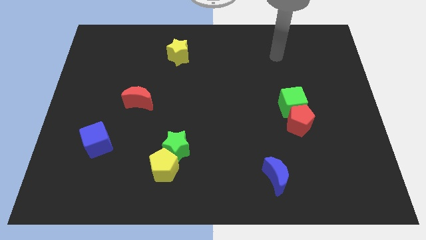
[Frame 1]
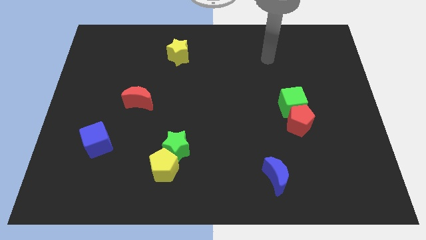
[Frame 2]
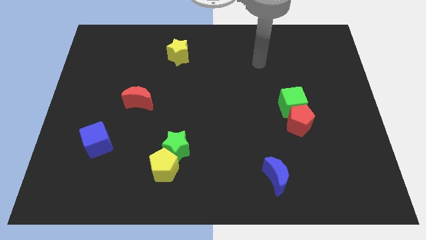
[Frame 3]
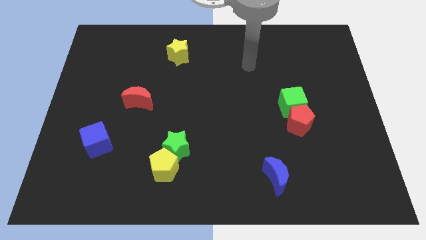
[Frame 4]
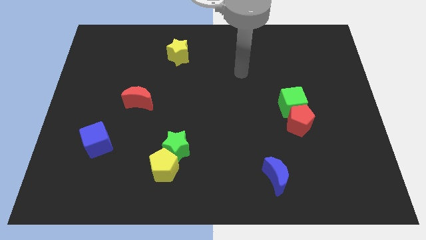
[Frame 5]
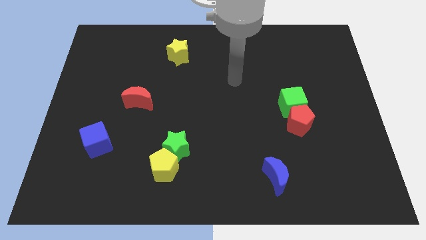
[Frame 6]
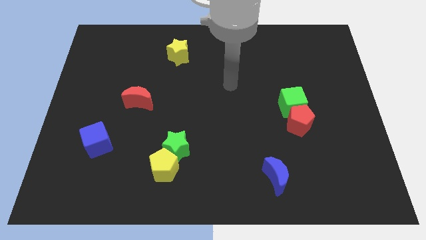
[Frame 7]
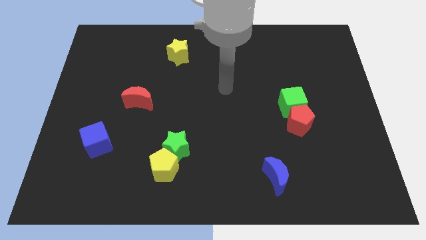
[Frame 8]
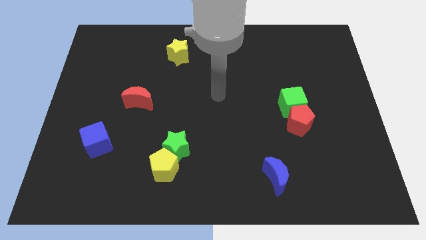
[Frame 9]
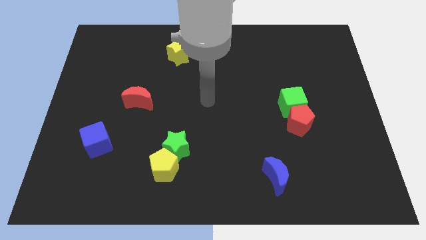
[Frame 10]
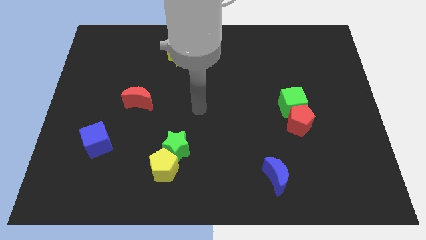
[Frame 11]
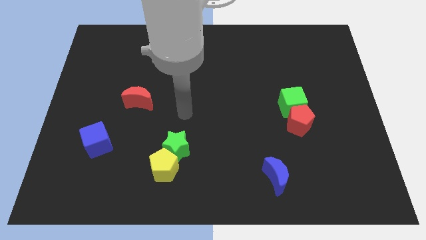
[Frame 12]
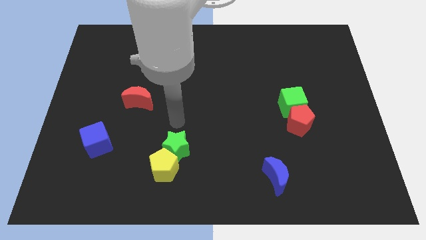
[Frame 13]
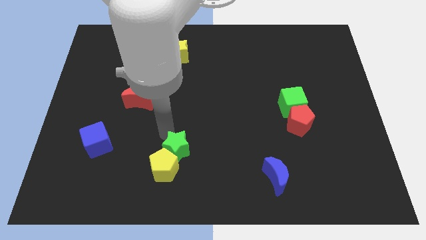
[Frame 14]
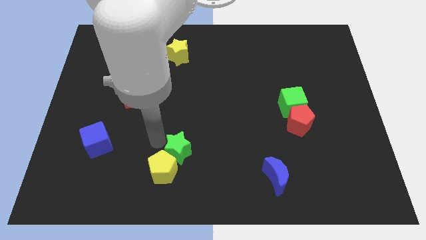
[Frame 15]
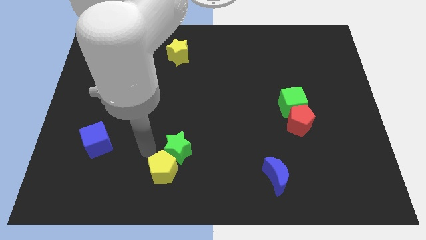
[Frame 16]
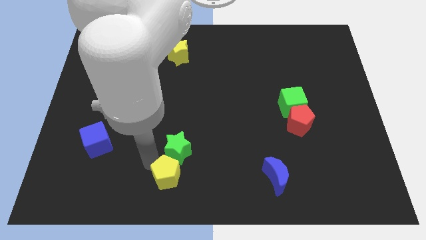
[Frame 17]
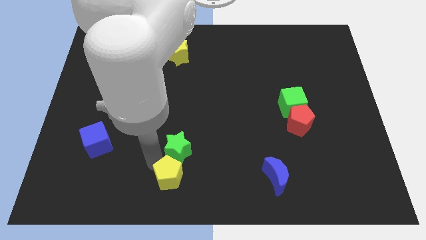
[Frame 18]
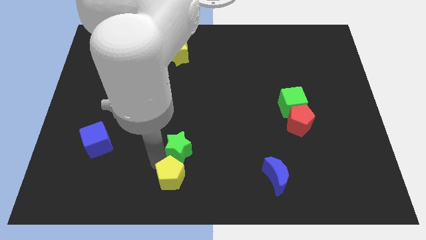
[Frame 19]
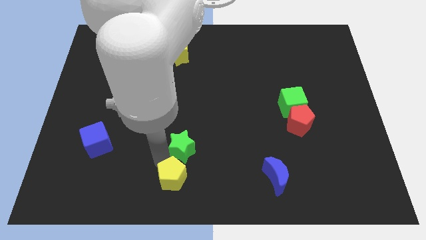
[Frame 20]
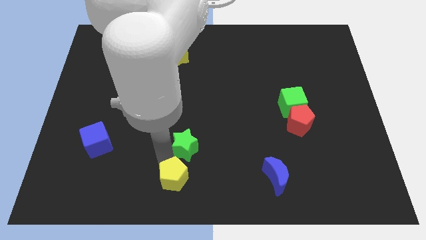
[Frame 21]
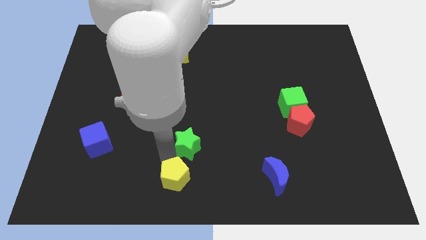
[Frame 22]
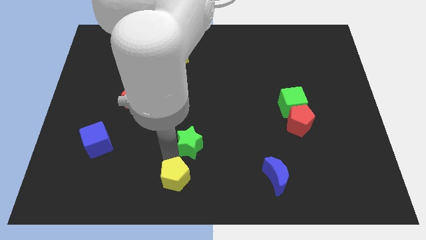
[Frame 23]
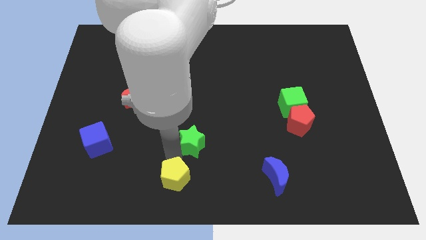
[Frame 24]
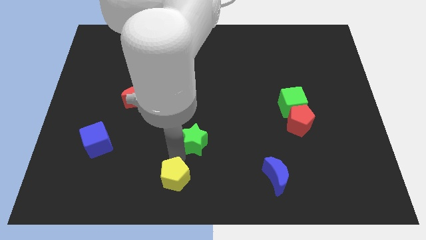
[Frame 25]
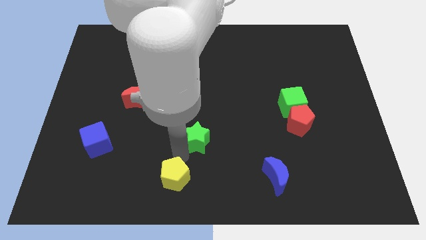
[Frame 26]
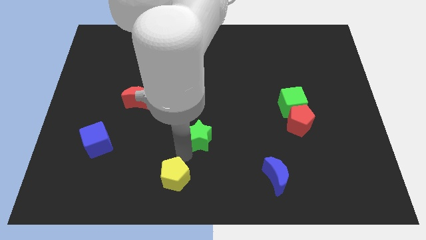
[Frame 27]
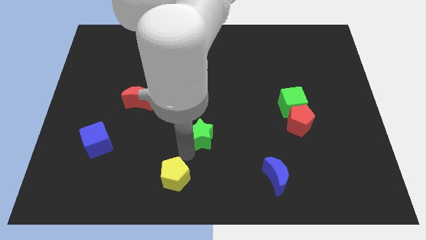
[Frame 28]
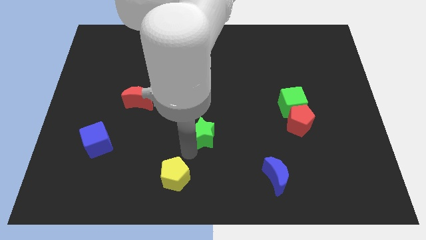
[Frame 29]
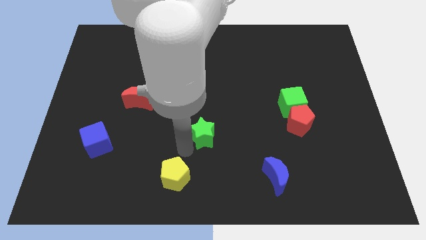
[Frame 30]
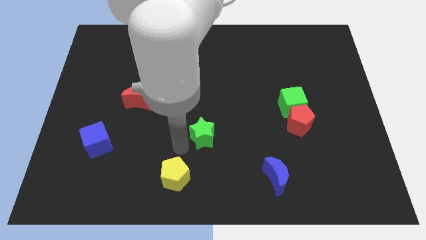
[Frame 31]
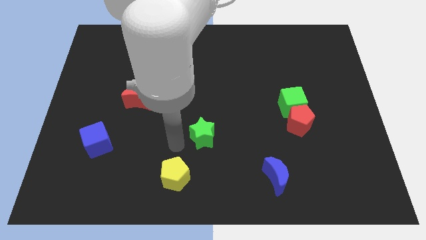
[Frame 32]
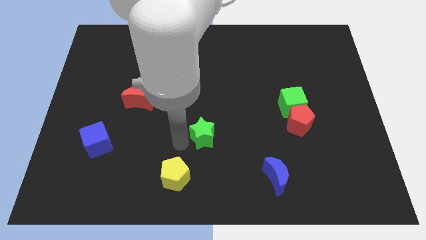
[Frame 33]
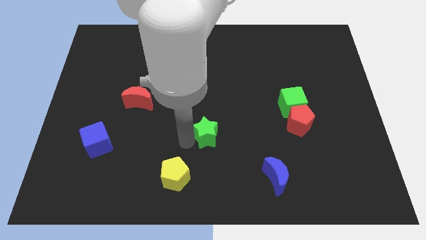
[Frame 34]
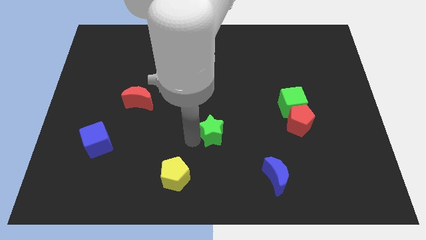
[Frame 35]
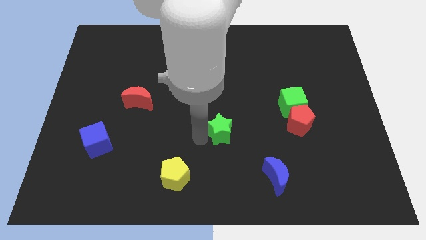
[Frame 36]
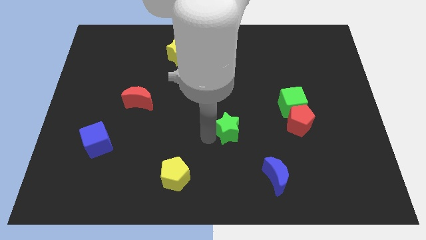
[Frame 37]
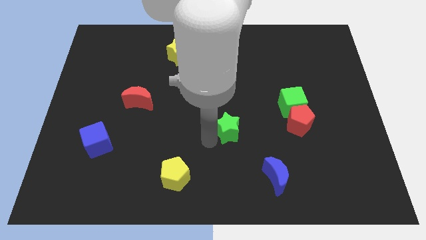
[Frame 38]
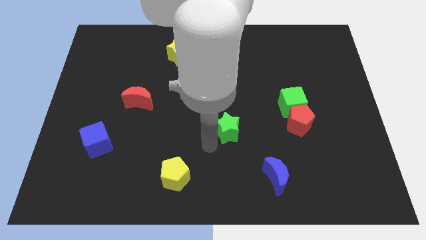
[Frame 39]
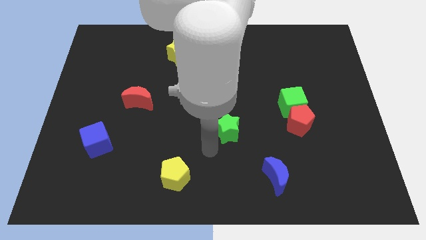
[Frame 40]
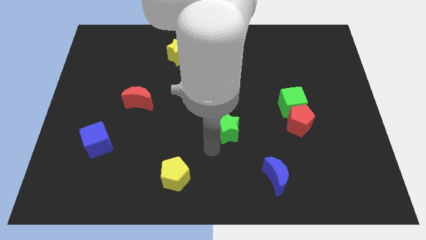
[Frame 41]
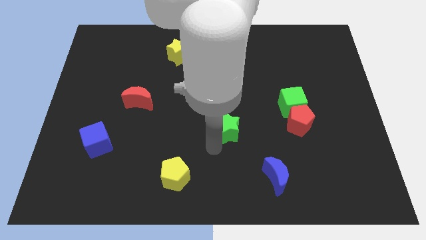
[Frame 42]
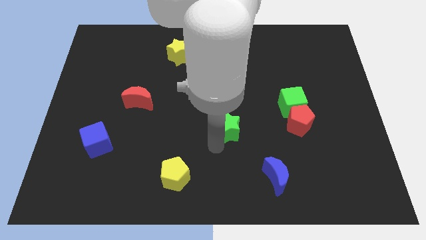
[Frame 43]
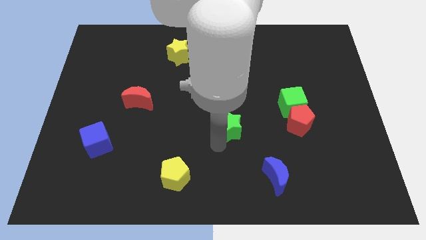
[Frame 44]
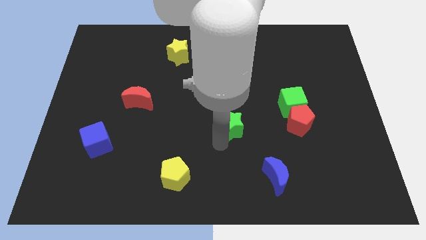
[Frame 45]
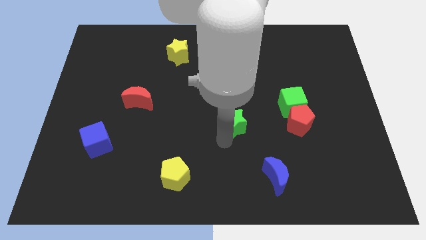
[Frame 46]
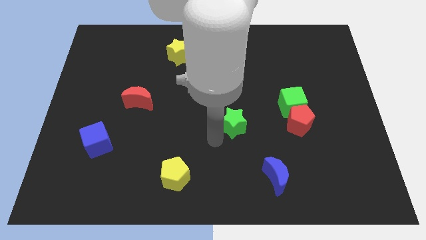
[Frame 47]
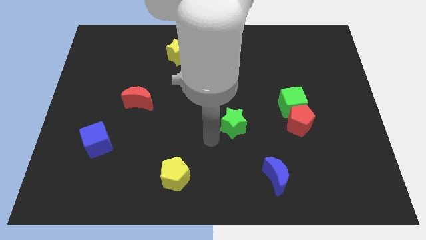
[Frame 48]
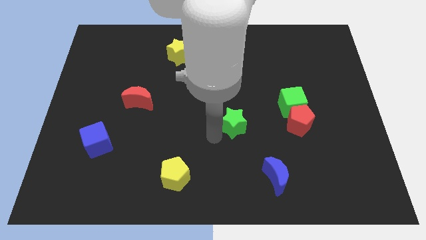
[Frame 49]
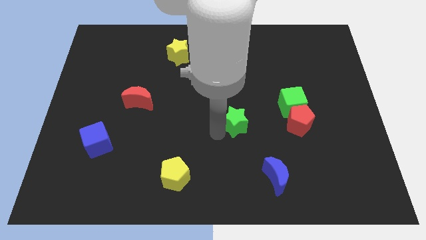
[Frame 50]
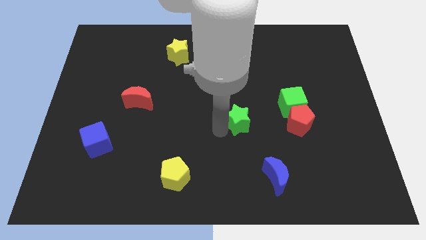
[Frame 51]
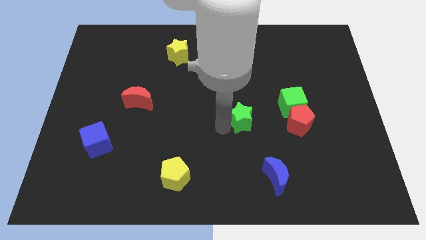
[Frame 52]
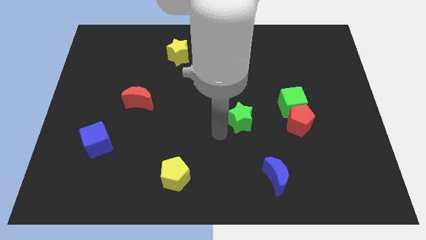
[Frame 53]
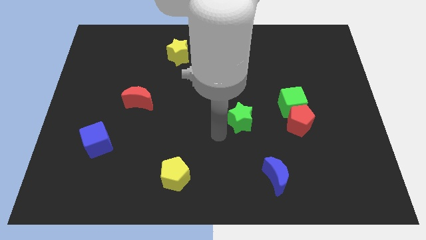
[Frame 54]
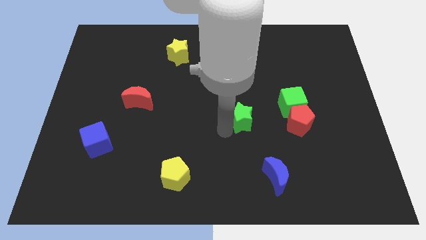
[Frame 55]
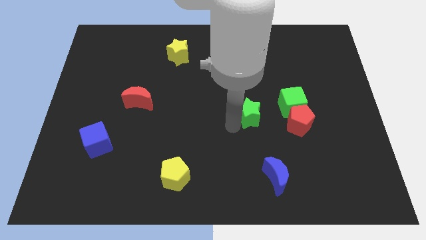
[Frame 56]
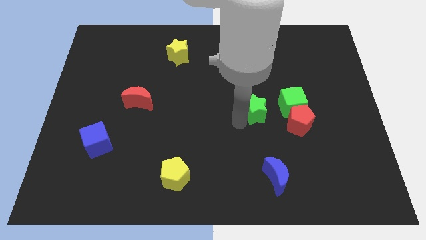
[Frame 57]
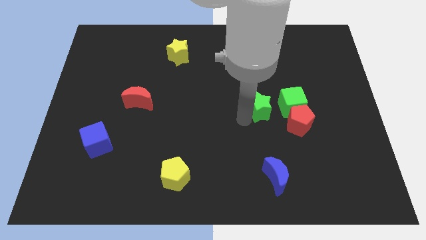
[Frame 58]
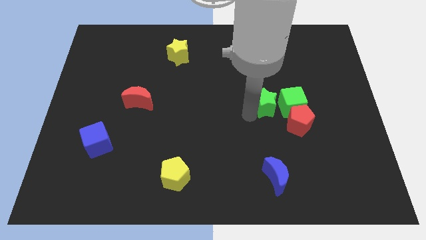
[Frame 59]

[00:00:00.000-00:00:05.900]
move the green star close to the green cube

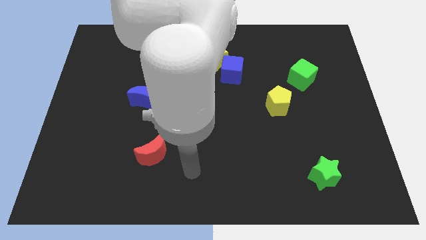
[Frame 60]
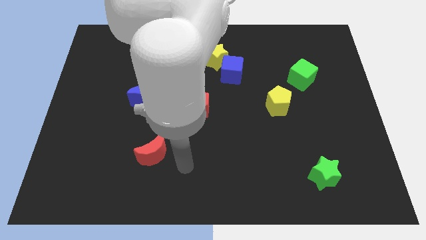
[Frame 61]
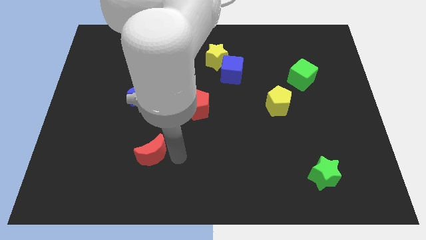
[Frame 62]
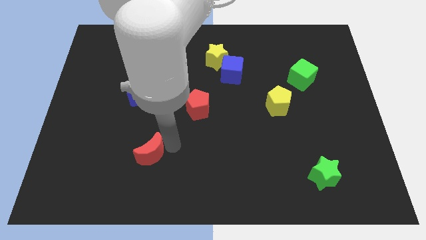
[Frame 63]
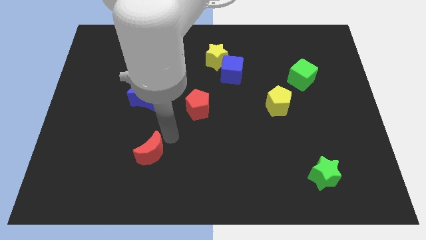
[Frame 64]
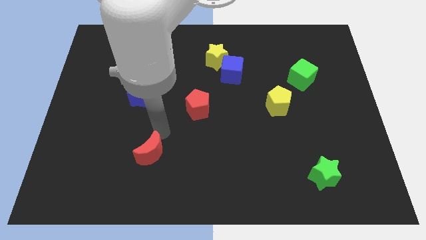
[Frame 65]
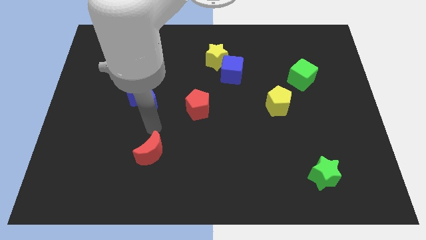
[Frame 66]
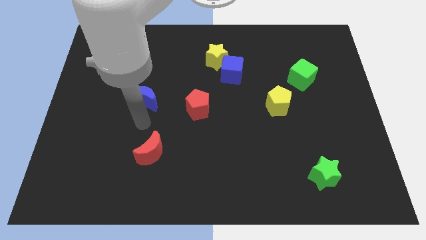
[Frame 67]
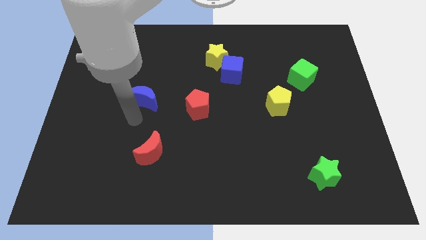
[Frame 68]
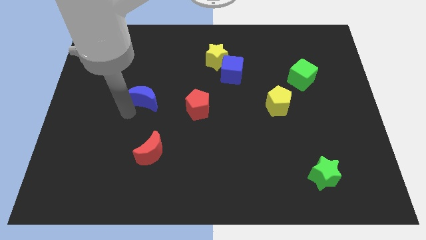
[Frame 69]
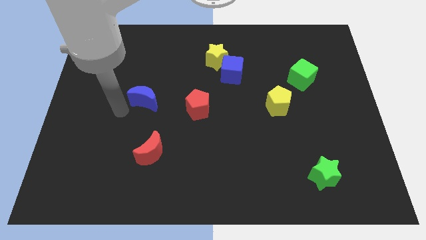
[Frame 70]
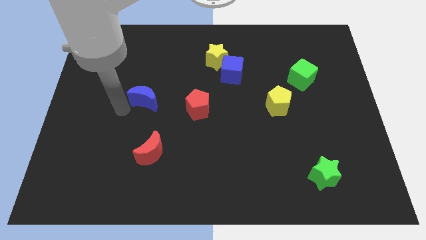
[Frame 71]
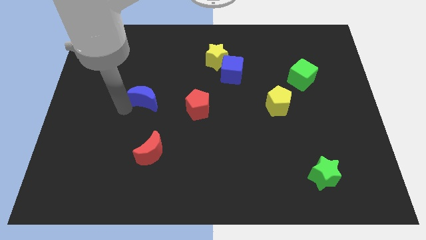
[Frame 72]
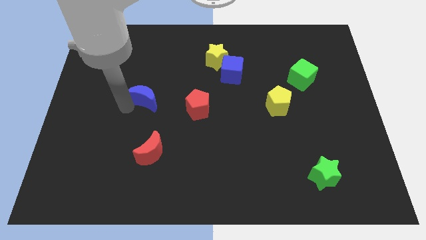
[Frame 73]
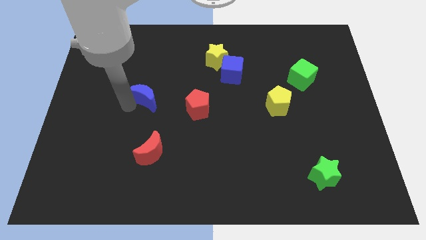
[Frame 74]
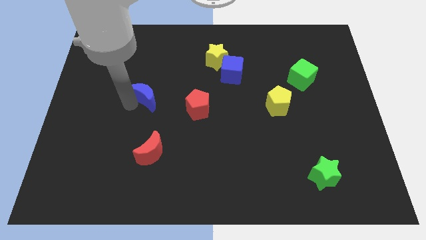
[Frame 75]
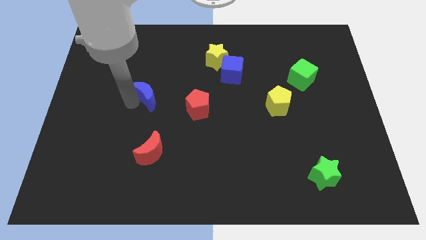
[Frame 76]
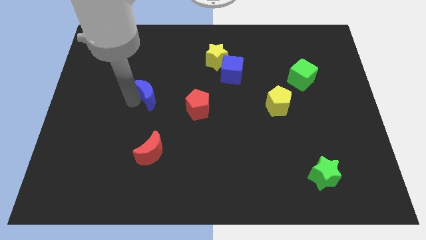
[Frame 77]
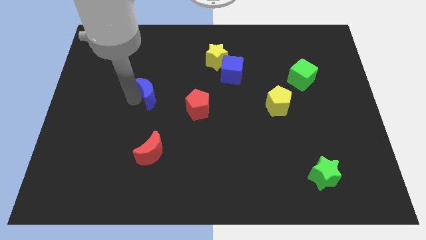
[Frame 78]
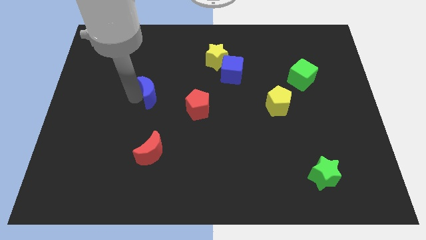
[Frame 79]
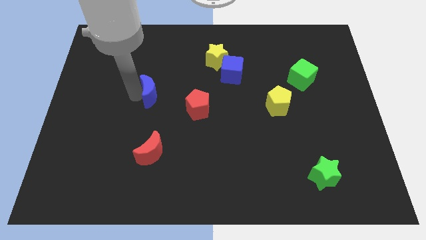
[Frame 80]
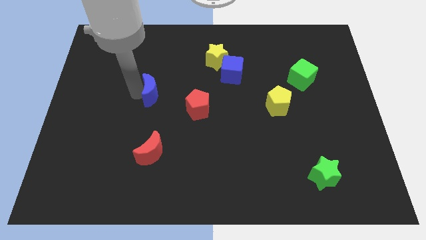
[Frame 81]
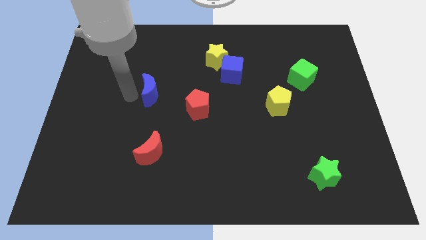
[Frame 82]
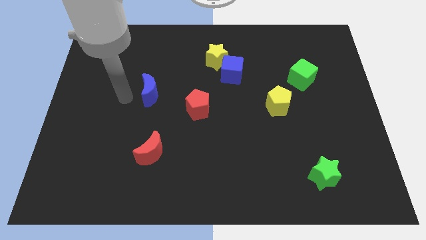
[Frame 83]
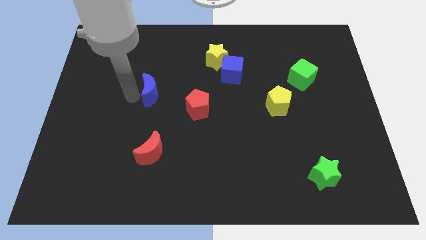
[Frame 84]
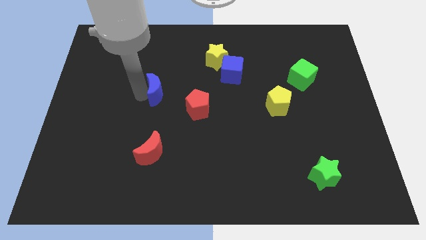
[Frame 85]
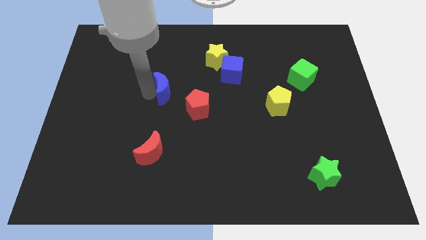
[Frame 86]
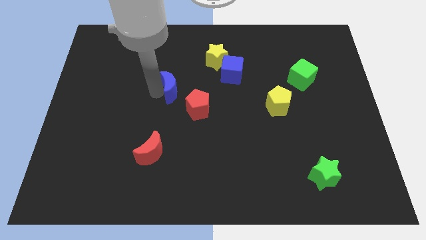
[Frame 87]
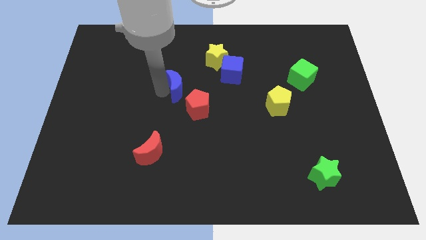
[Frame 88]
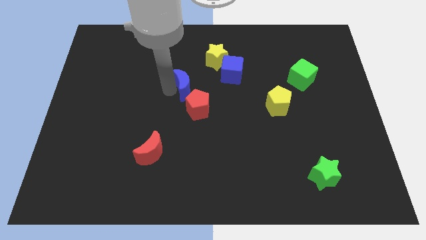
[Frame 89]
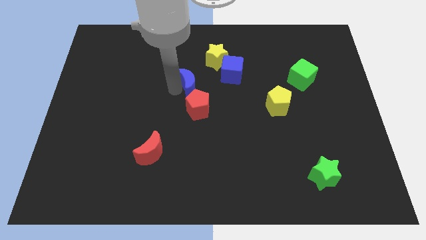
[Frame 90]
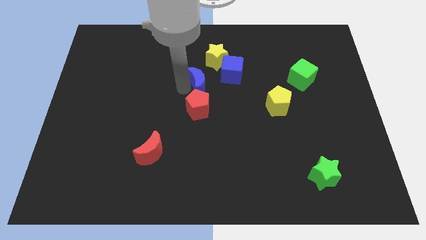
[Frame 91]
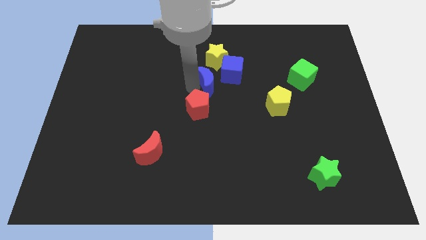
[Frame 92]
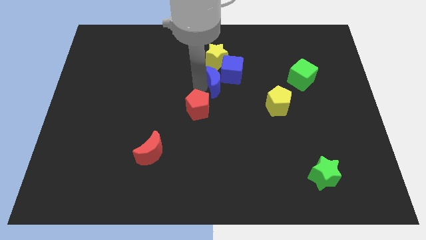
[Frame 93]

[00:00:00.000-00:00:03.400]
move the blue moon next to the blue cube
